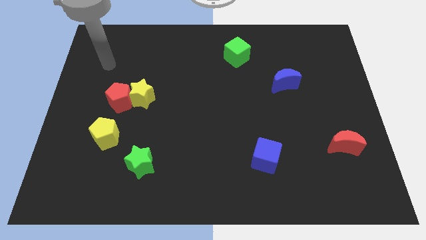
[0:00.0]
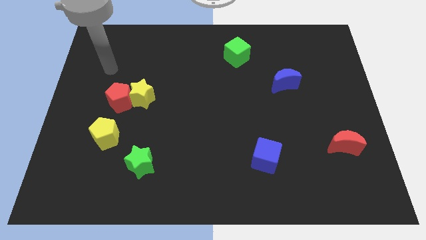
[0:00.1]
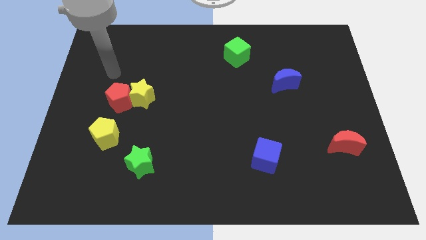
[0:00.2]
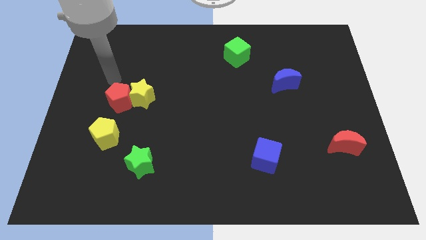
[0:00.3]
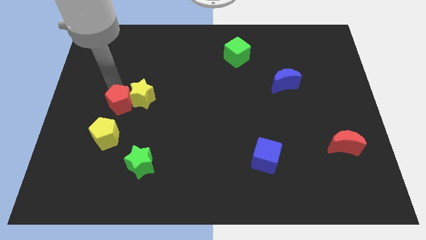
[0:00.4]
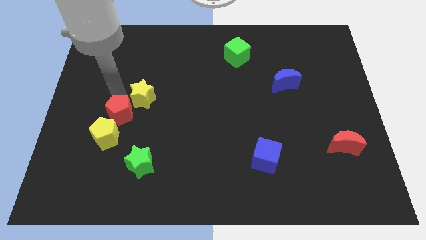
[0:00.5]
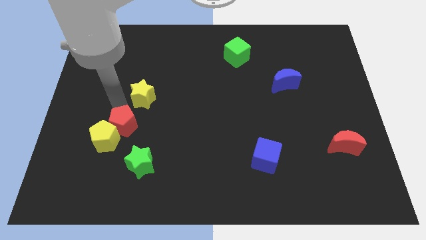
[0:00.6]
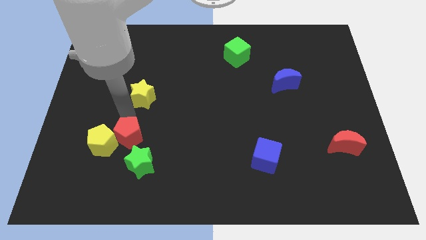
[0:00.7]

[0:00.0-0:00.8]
separate the yellow star from the red pentagon

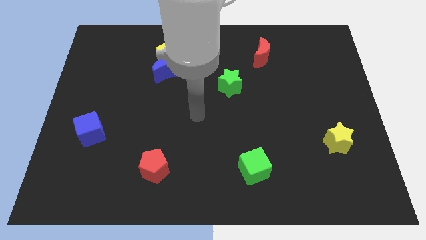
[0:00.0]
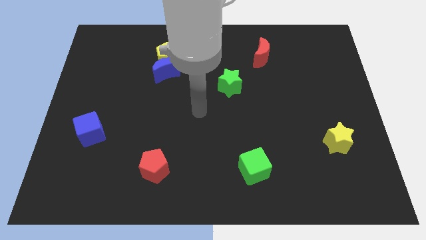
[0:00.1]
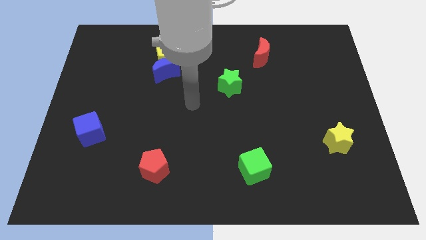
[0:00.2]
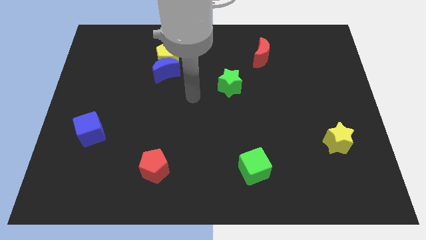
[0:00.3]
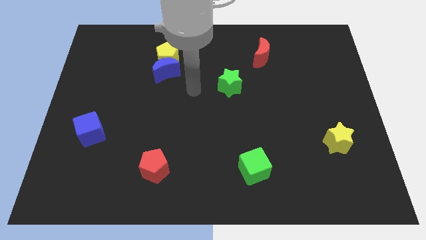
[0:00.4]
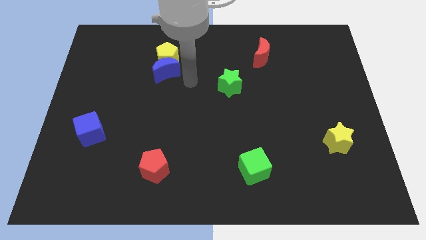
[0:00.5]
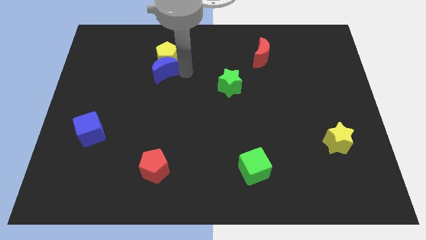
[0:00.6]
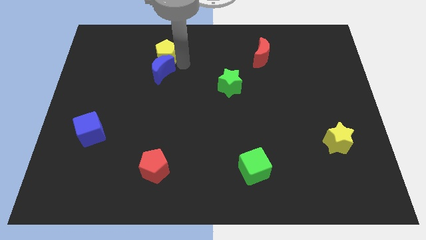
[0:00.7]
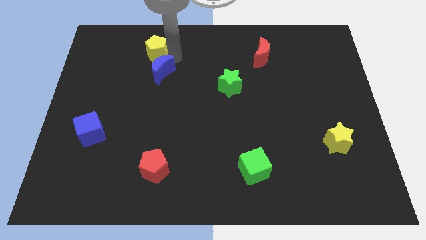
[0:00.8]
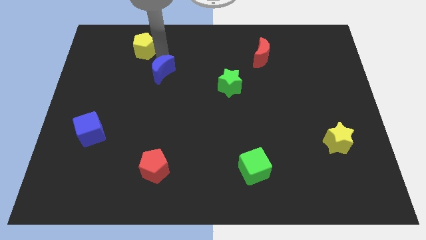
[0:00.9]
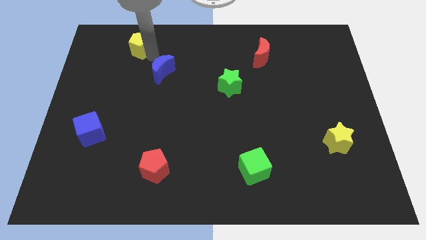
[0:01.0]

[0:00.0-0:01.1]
move the blue moon away from the yellow pentagon

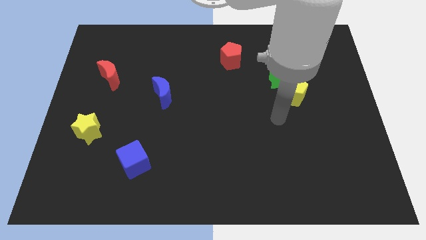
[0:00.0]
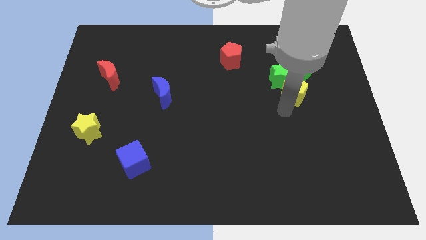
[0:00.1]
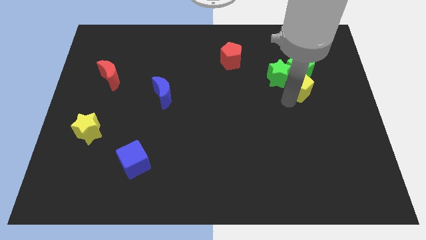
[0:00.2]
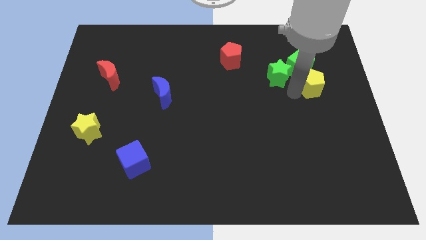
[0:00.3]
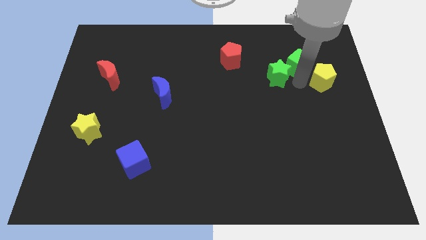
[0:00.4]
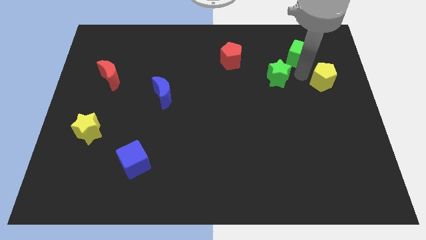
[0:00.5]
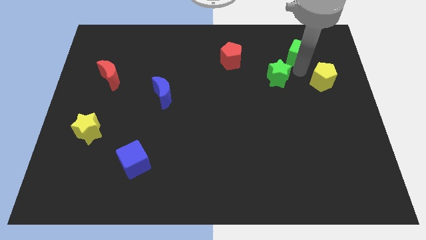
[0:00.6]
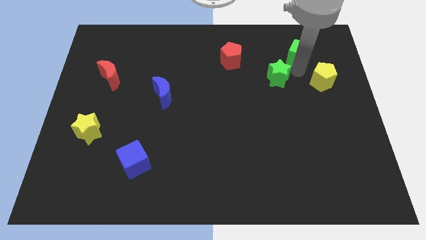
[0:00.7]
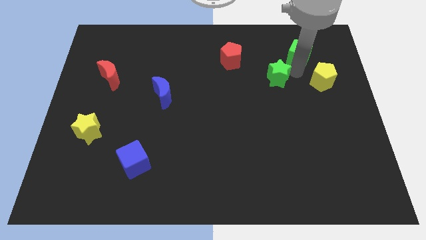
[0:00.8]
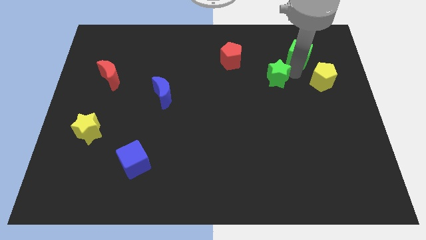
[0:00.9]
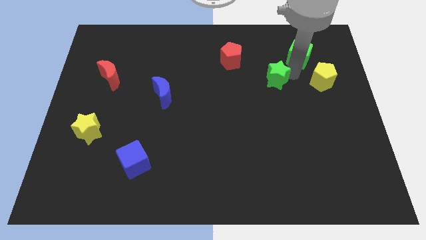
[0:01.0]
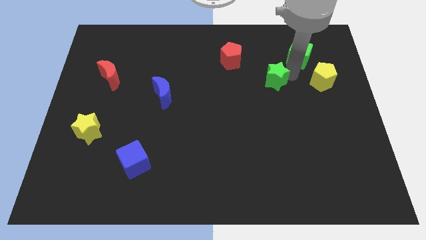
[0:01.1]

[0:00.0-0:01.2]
pull the green star apart from the green cube and yellow pentagon

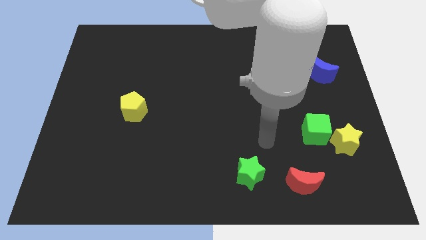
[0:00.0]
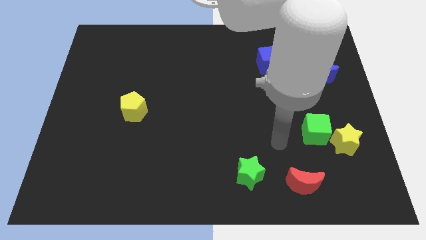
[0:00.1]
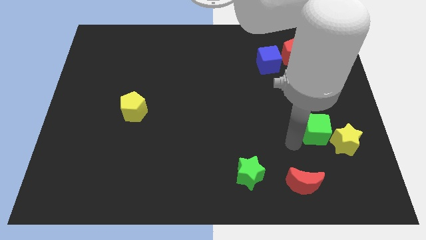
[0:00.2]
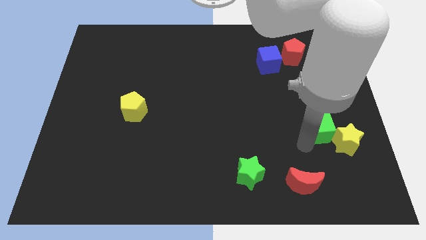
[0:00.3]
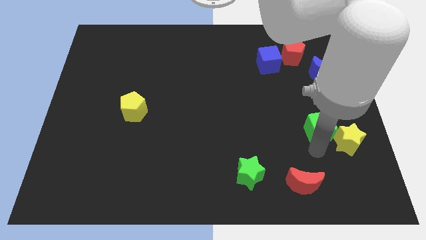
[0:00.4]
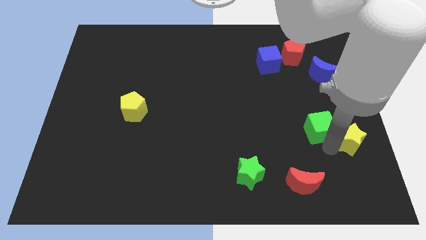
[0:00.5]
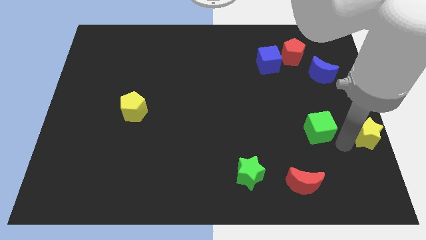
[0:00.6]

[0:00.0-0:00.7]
pull the green cube apart from the yellow star

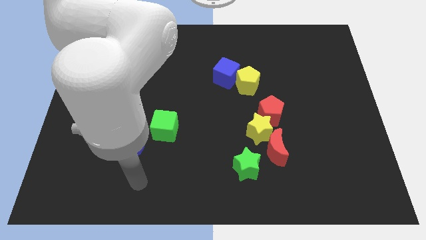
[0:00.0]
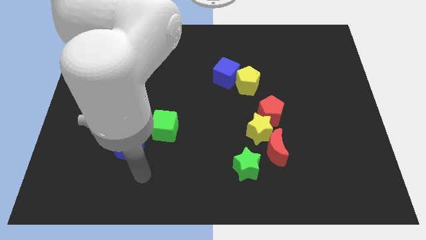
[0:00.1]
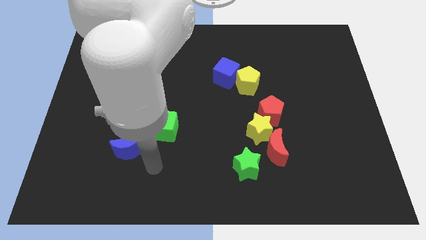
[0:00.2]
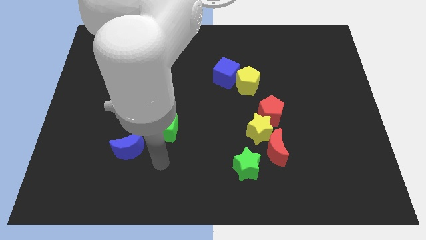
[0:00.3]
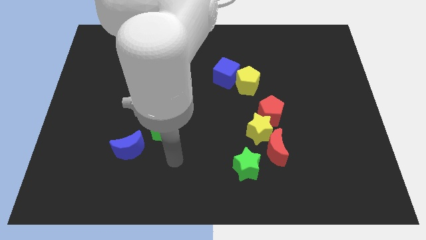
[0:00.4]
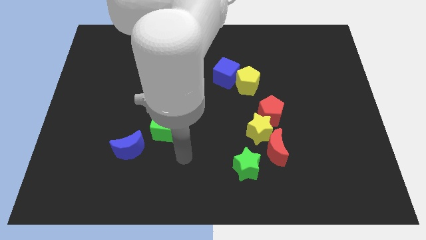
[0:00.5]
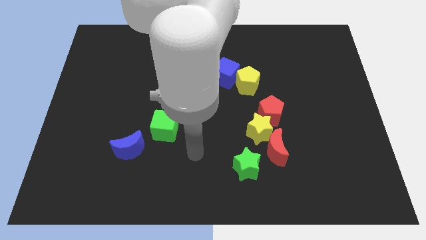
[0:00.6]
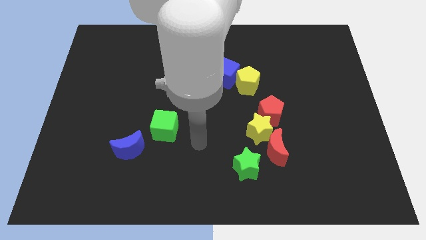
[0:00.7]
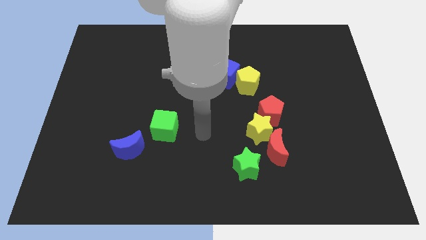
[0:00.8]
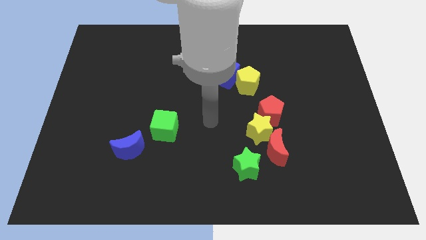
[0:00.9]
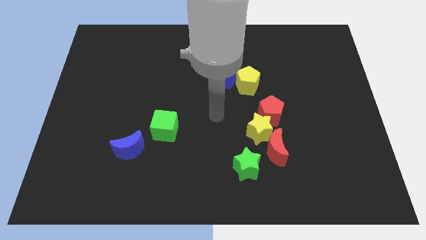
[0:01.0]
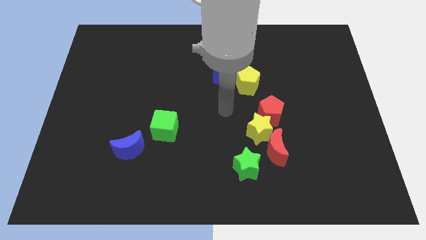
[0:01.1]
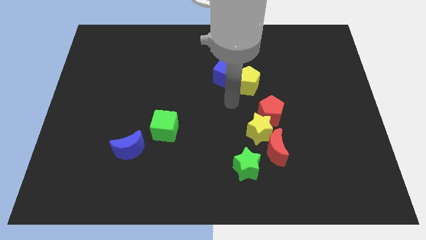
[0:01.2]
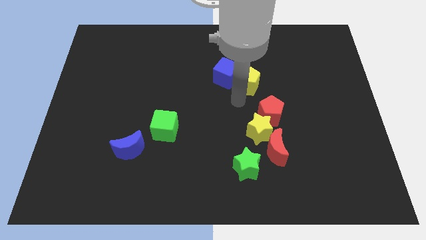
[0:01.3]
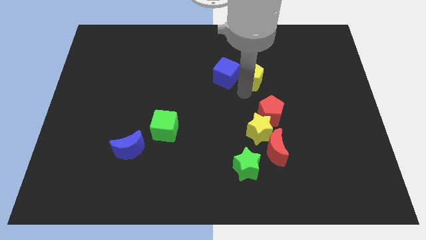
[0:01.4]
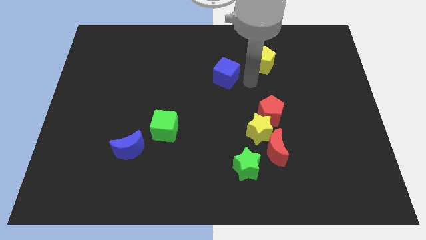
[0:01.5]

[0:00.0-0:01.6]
pull the blue cube apart from the yellow pentagon

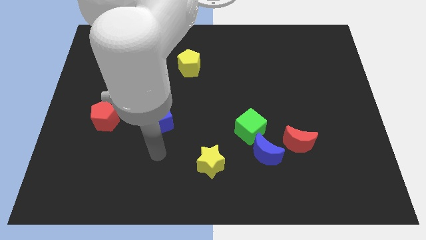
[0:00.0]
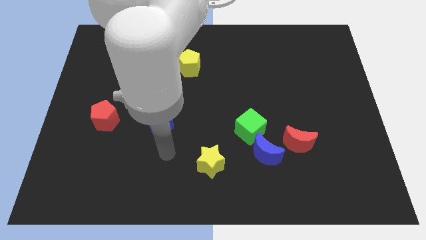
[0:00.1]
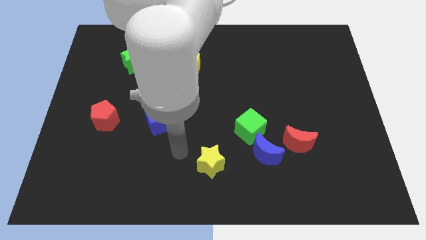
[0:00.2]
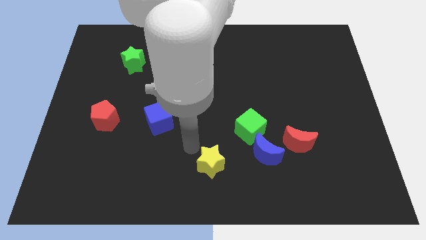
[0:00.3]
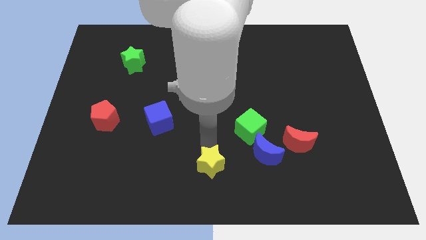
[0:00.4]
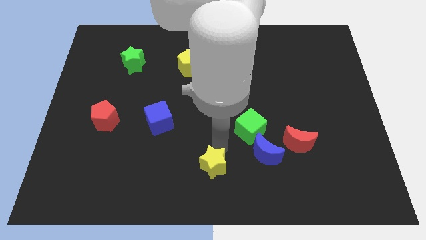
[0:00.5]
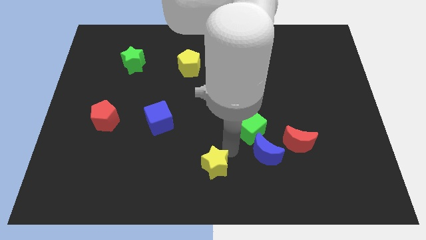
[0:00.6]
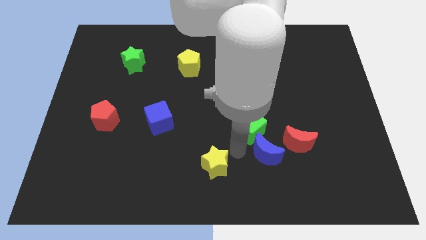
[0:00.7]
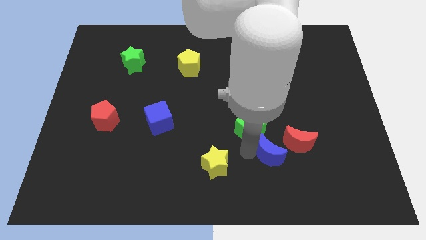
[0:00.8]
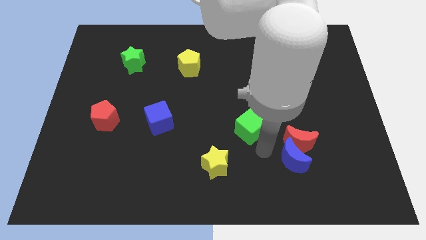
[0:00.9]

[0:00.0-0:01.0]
separate the green cube from the blue moon

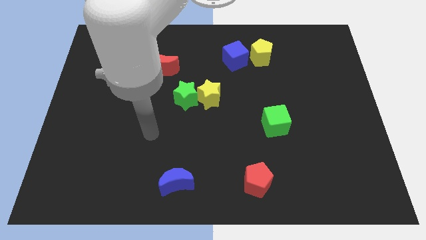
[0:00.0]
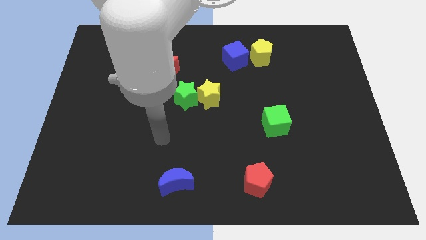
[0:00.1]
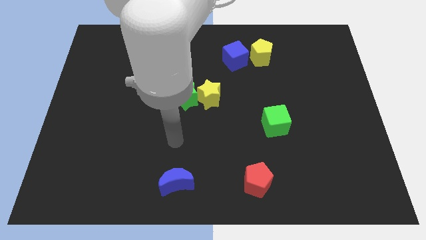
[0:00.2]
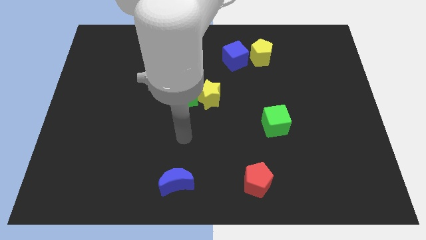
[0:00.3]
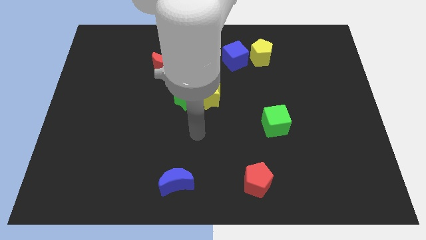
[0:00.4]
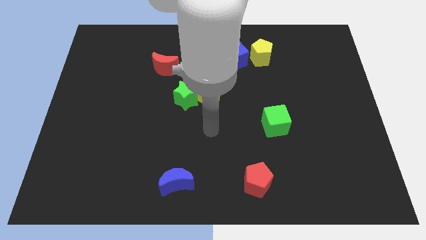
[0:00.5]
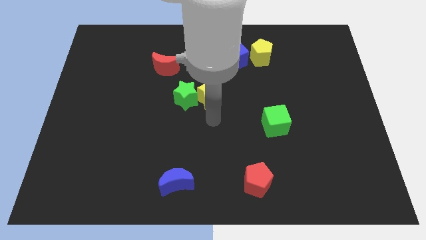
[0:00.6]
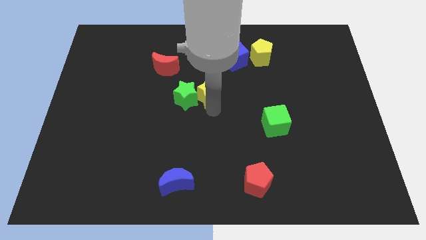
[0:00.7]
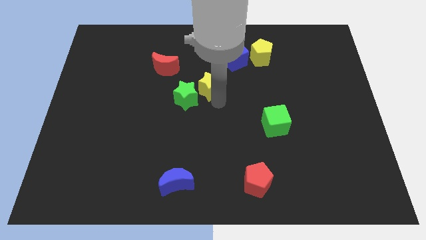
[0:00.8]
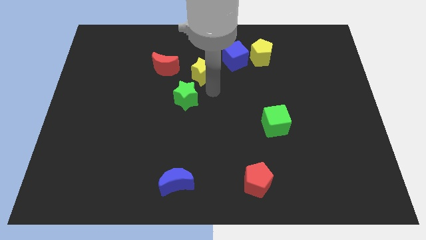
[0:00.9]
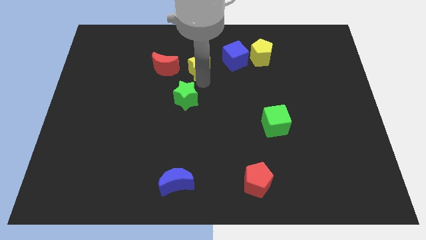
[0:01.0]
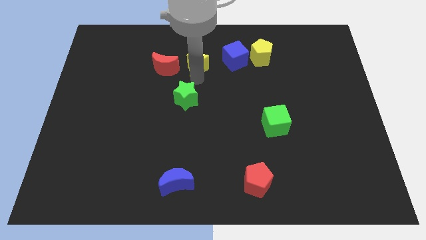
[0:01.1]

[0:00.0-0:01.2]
move the green star away from the yellow star

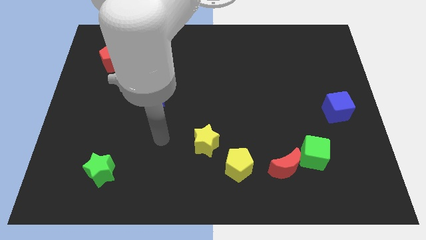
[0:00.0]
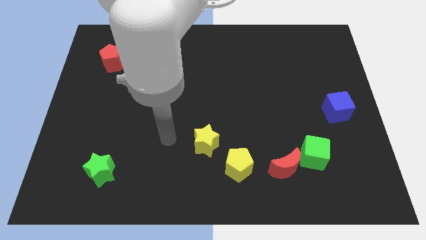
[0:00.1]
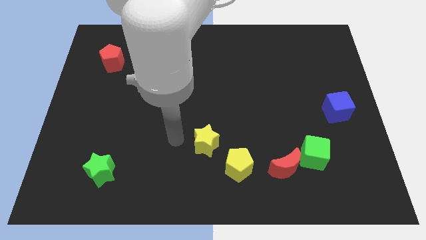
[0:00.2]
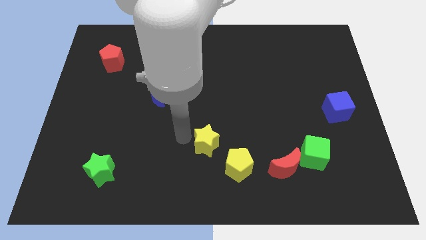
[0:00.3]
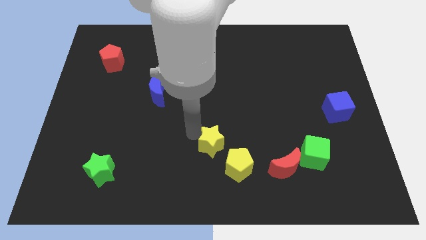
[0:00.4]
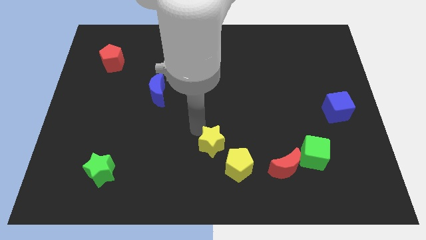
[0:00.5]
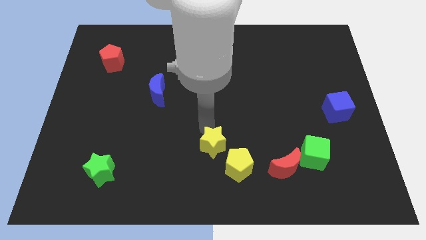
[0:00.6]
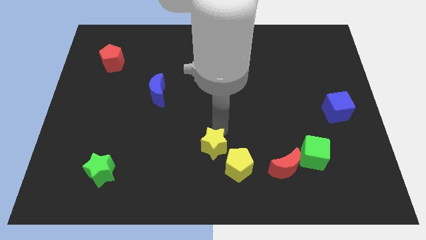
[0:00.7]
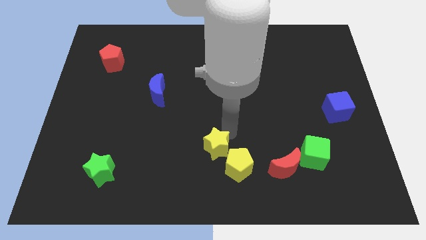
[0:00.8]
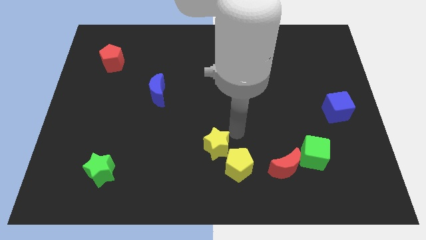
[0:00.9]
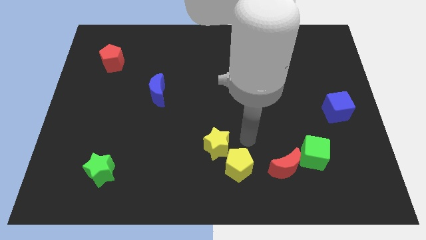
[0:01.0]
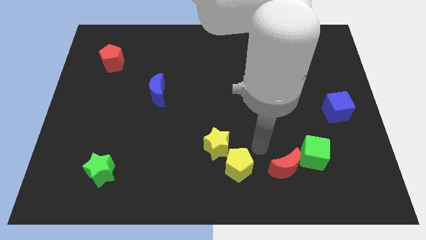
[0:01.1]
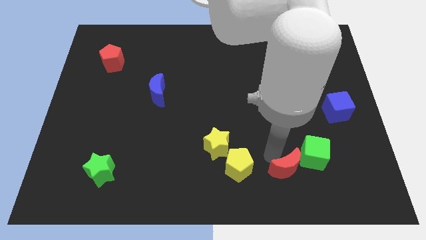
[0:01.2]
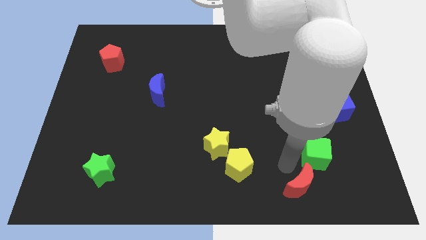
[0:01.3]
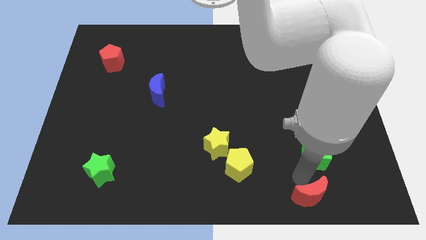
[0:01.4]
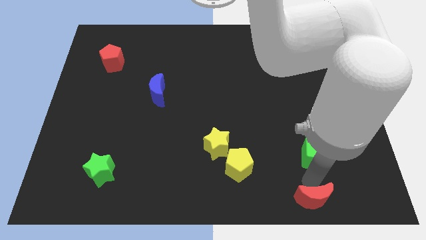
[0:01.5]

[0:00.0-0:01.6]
move the green cube away from the red moon
